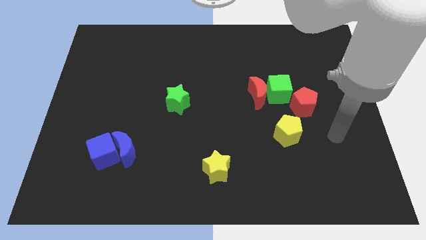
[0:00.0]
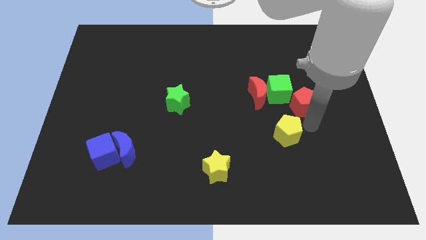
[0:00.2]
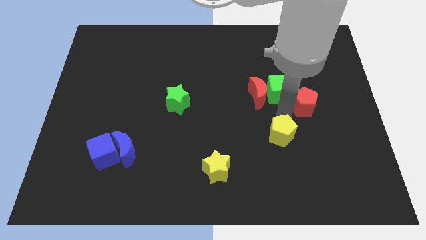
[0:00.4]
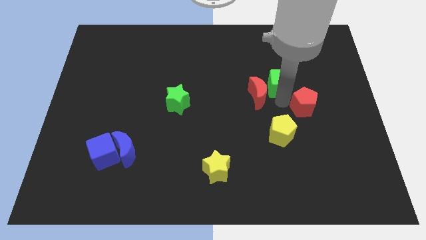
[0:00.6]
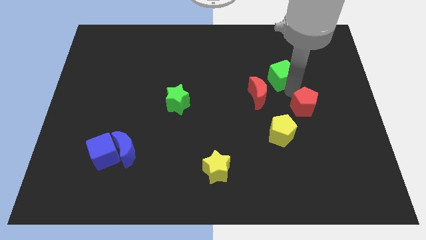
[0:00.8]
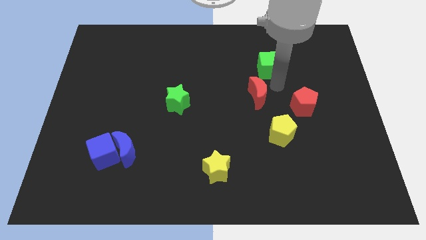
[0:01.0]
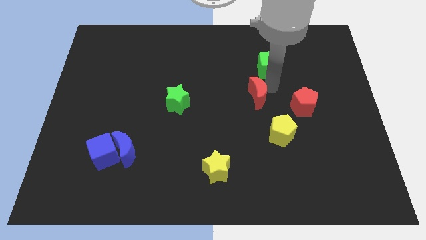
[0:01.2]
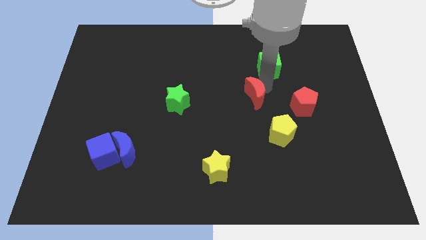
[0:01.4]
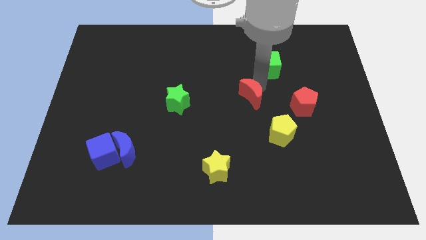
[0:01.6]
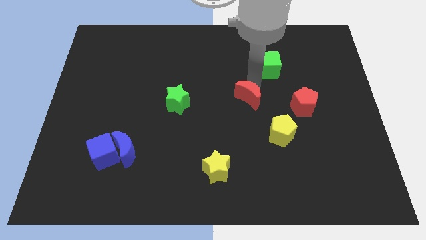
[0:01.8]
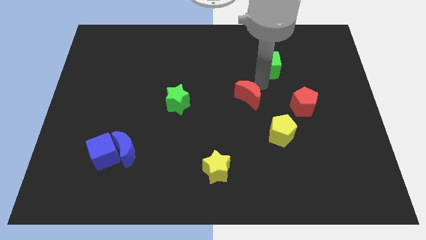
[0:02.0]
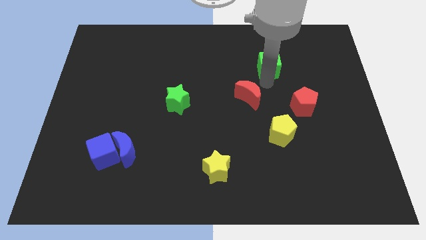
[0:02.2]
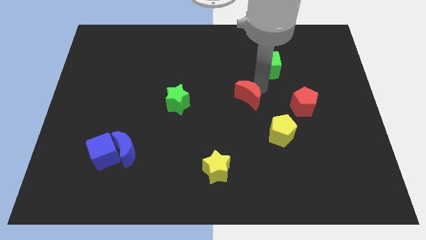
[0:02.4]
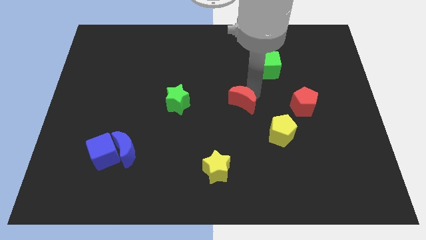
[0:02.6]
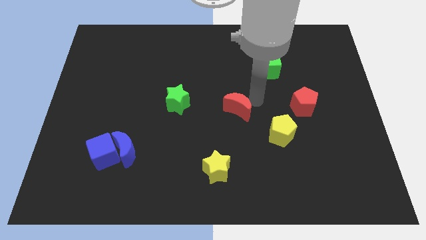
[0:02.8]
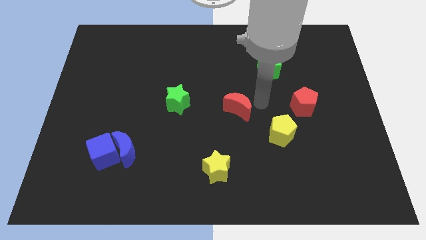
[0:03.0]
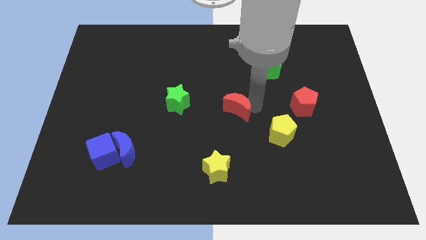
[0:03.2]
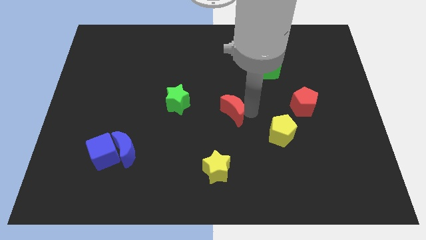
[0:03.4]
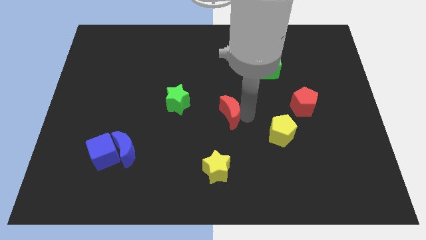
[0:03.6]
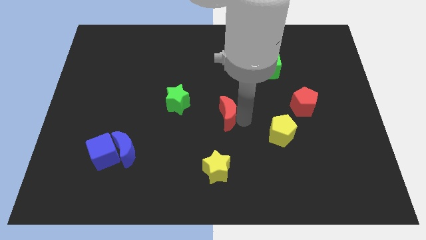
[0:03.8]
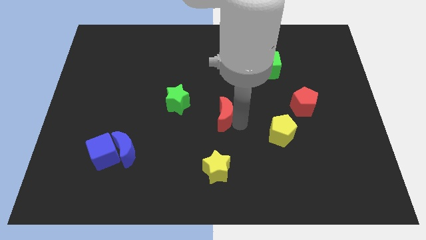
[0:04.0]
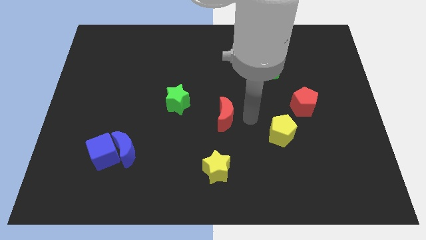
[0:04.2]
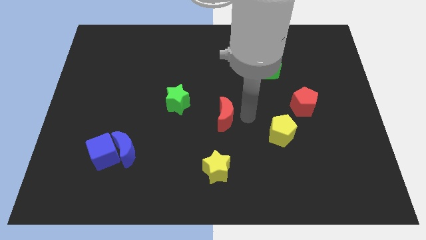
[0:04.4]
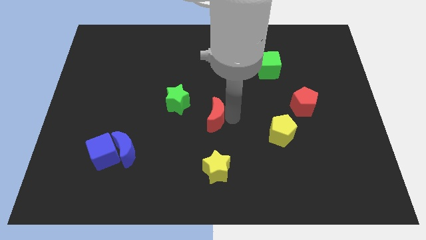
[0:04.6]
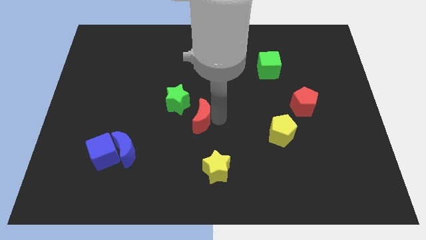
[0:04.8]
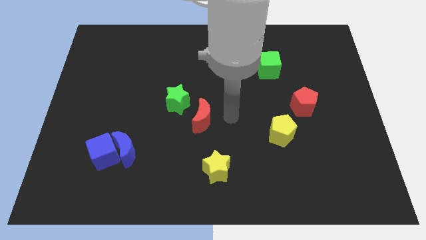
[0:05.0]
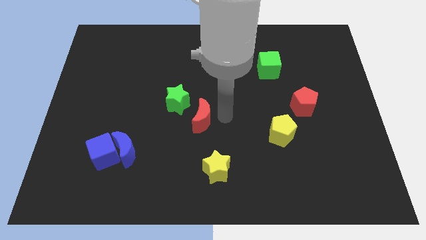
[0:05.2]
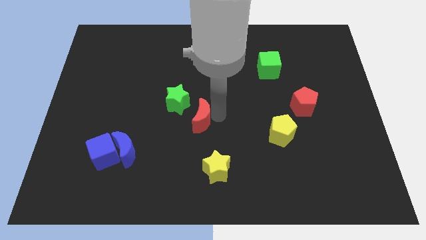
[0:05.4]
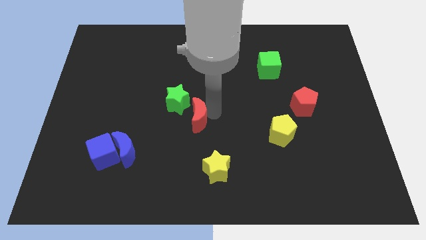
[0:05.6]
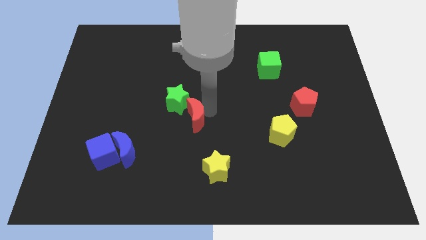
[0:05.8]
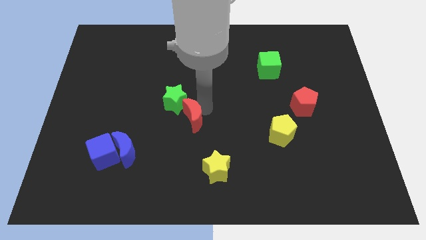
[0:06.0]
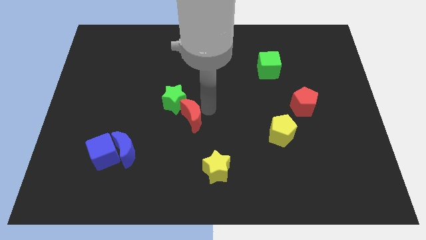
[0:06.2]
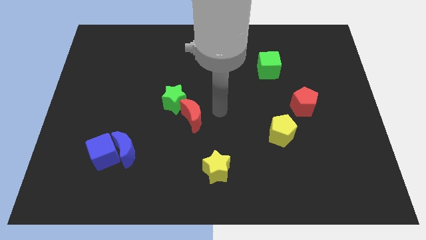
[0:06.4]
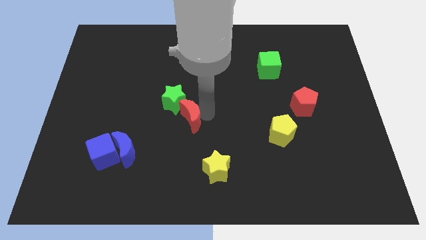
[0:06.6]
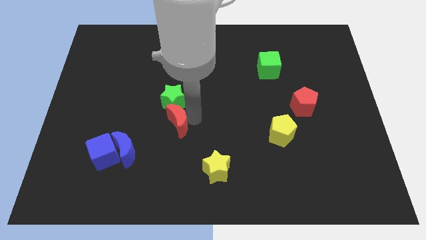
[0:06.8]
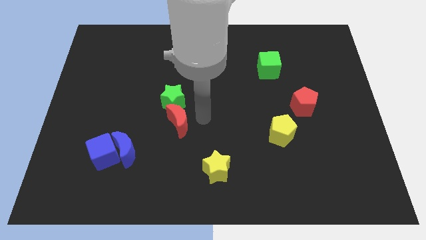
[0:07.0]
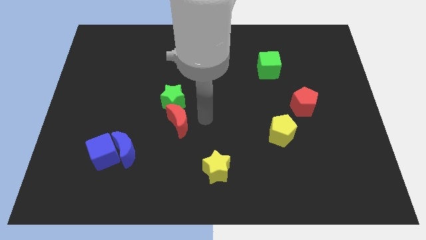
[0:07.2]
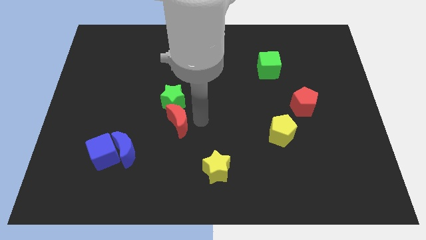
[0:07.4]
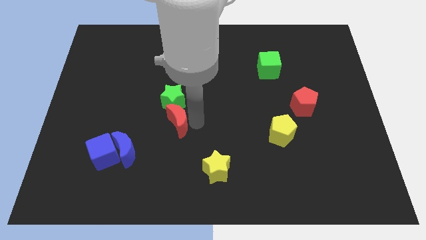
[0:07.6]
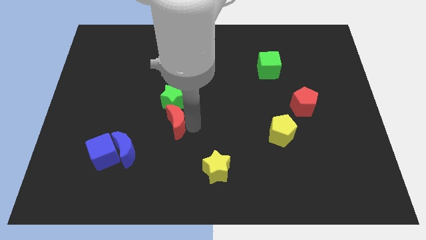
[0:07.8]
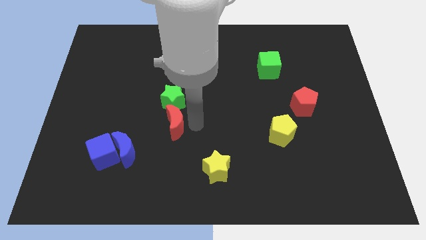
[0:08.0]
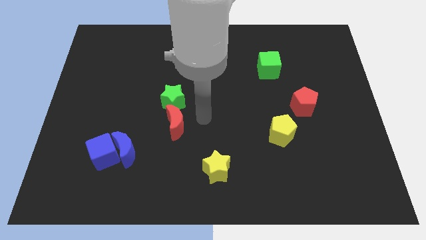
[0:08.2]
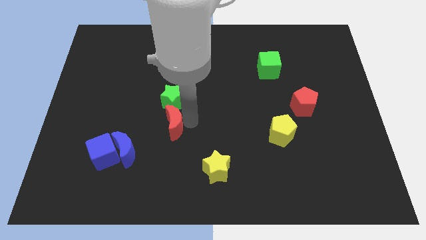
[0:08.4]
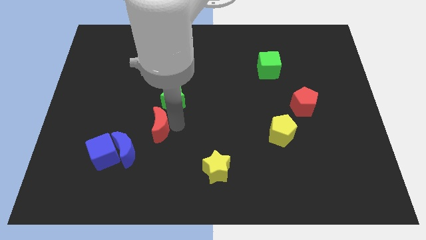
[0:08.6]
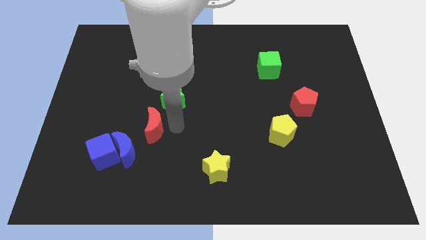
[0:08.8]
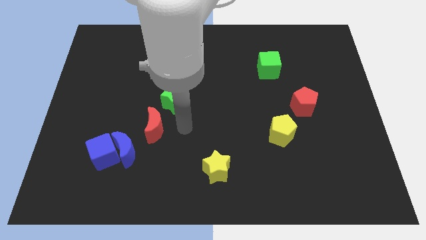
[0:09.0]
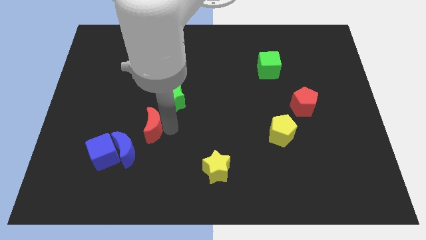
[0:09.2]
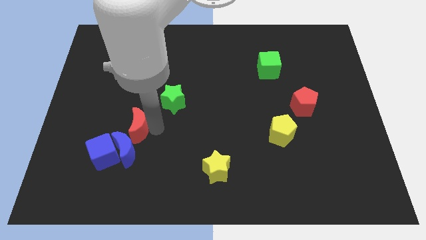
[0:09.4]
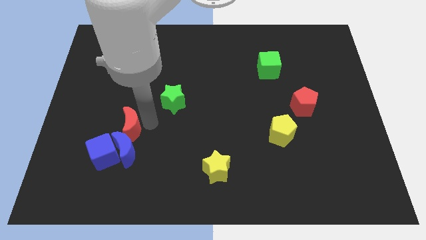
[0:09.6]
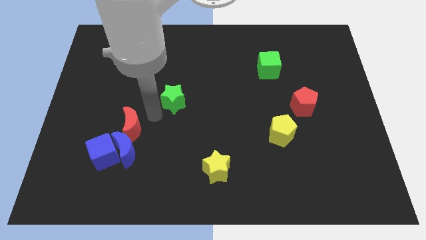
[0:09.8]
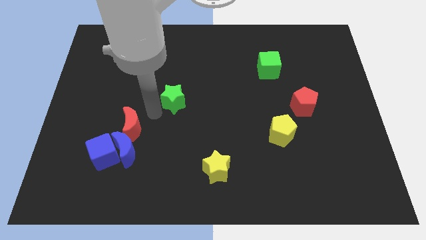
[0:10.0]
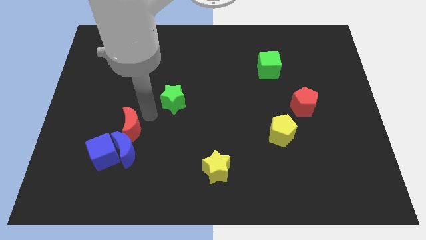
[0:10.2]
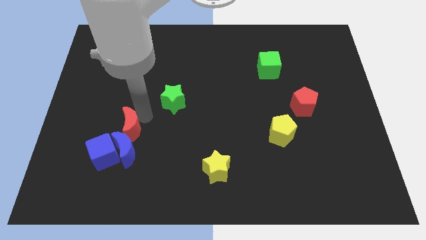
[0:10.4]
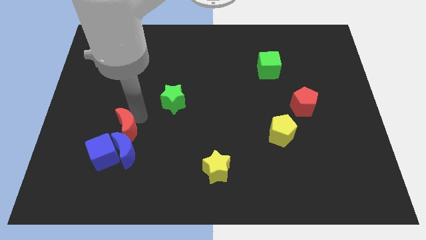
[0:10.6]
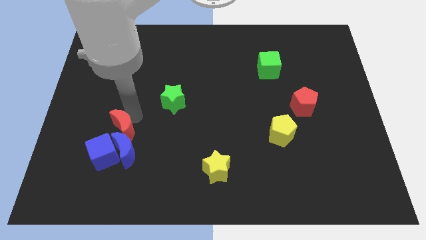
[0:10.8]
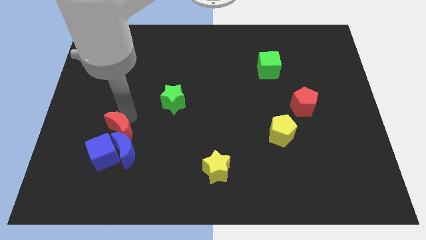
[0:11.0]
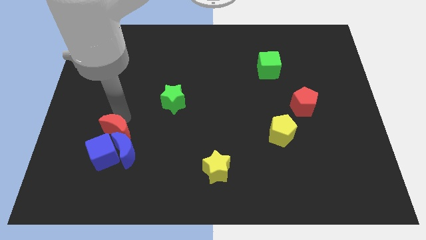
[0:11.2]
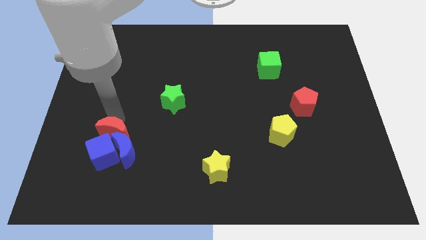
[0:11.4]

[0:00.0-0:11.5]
push the red moon to the blue cube

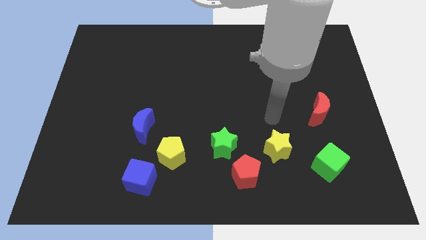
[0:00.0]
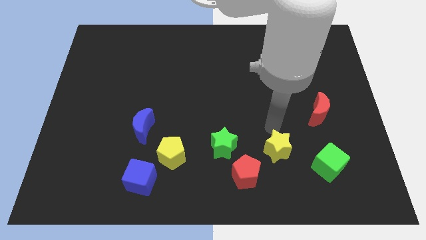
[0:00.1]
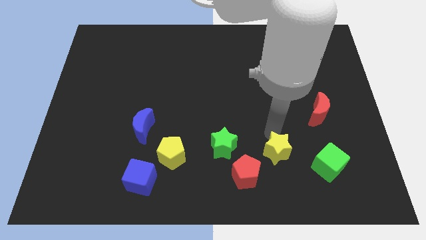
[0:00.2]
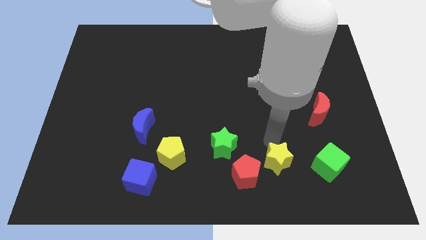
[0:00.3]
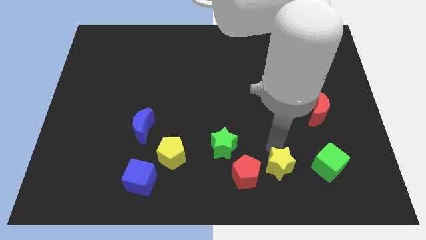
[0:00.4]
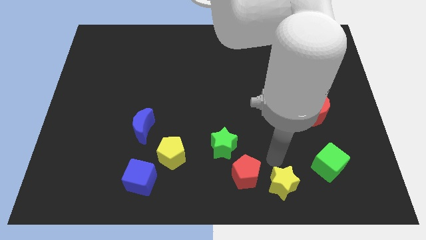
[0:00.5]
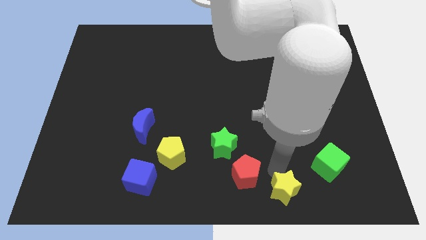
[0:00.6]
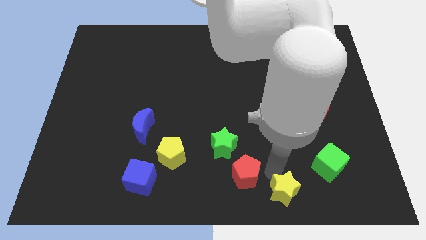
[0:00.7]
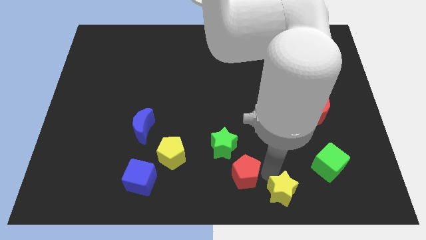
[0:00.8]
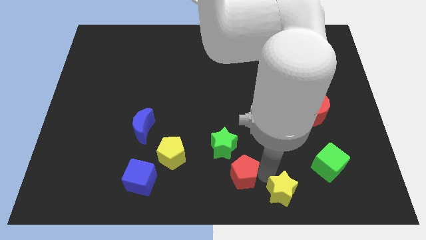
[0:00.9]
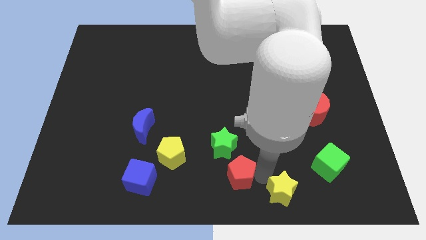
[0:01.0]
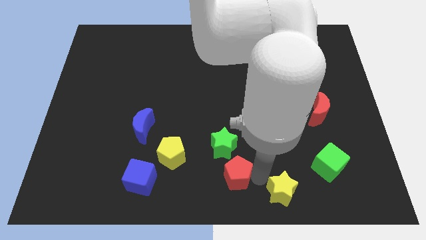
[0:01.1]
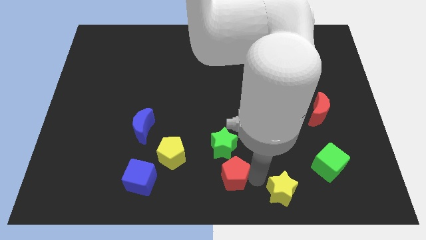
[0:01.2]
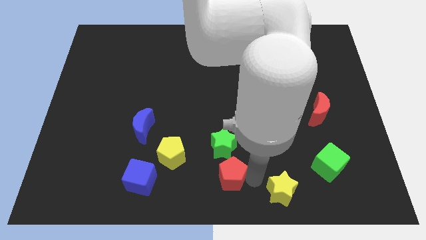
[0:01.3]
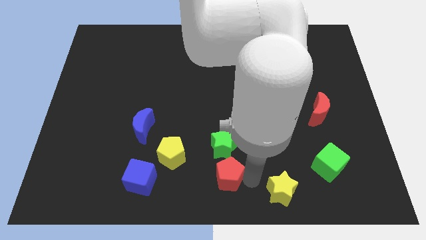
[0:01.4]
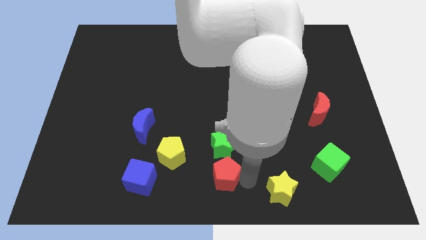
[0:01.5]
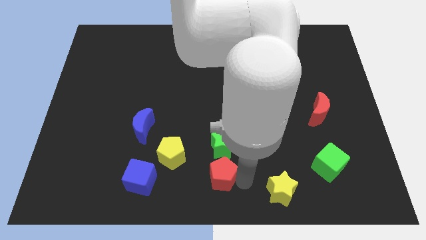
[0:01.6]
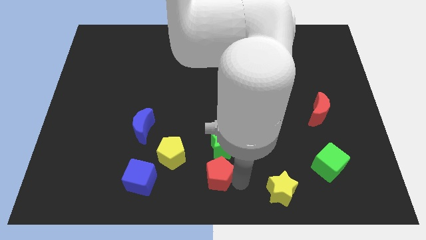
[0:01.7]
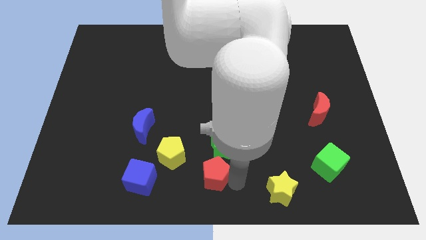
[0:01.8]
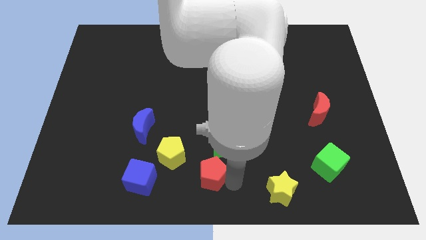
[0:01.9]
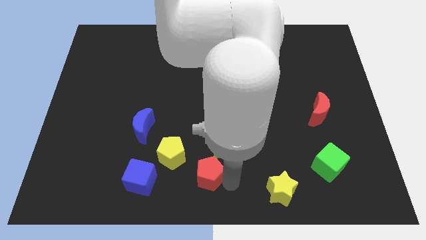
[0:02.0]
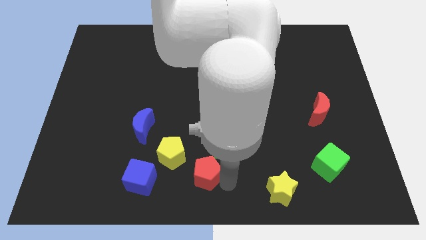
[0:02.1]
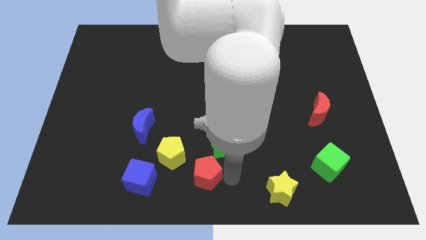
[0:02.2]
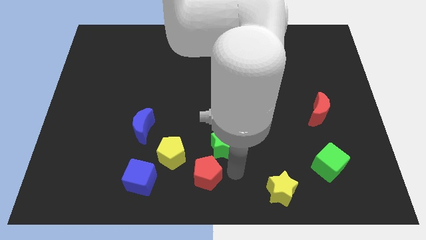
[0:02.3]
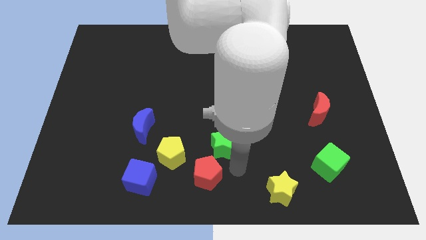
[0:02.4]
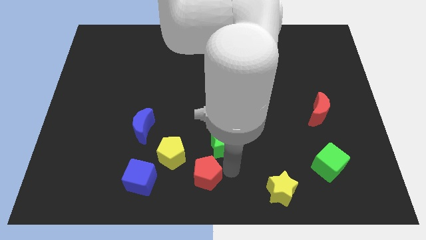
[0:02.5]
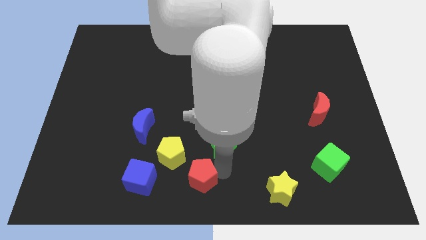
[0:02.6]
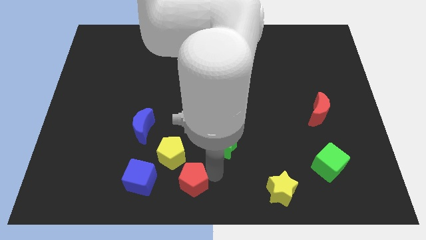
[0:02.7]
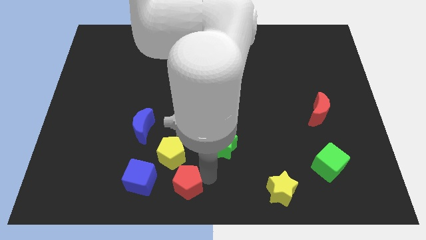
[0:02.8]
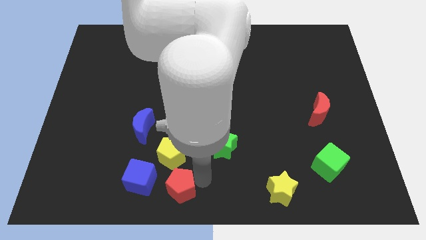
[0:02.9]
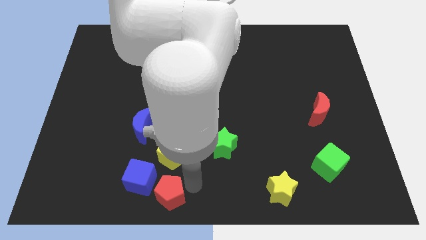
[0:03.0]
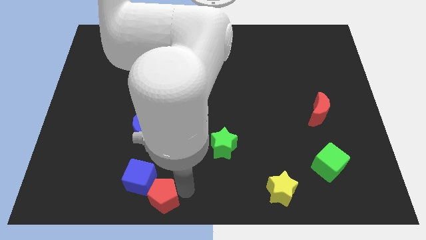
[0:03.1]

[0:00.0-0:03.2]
move the red pentagon next to the blue cube
